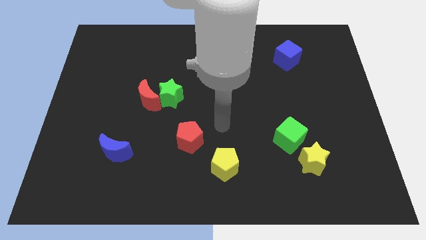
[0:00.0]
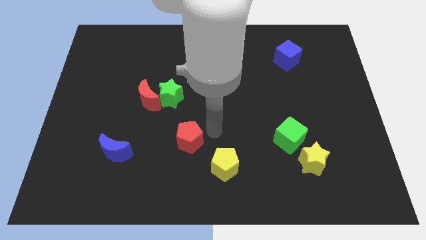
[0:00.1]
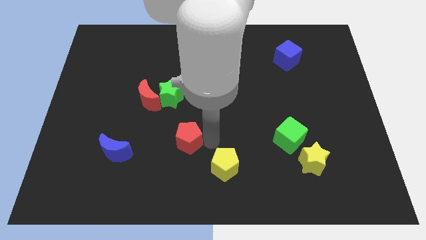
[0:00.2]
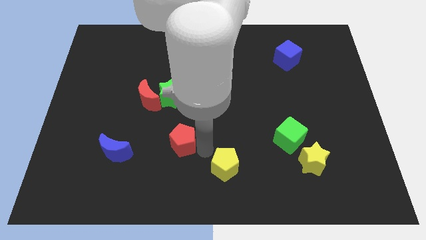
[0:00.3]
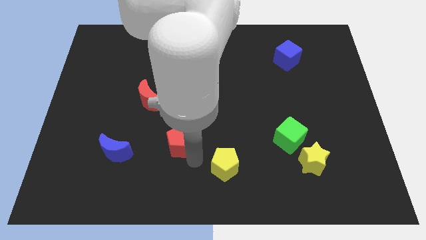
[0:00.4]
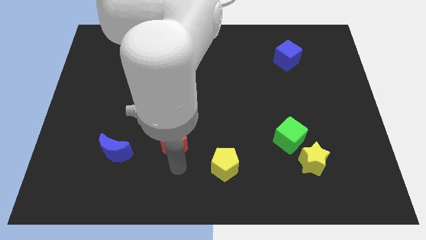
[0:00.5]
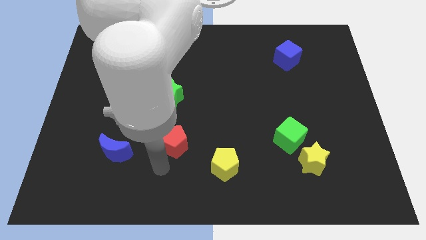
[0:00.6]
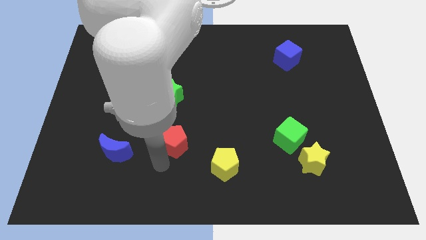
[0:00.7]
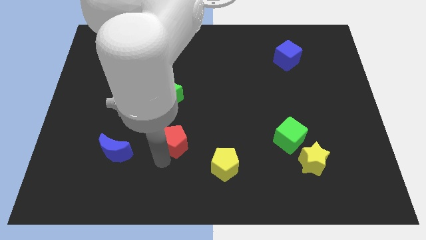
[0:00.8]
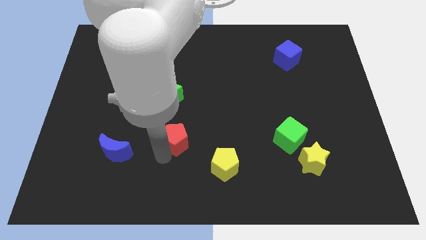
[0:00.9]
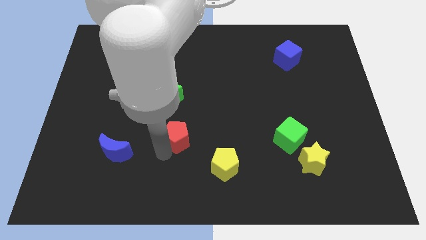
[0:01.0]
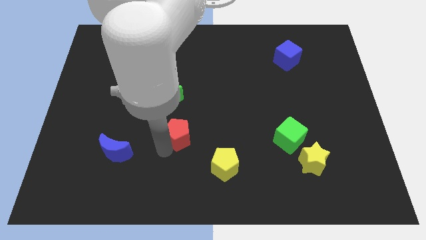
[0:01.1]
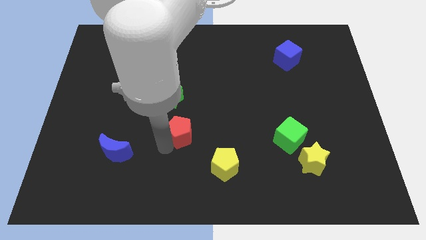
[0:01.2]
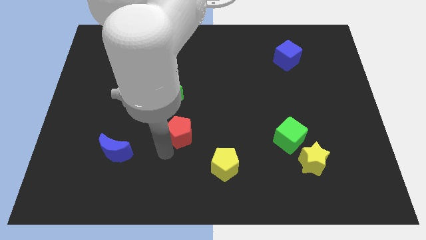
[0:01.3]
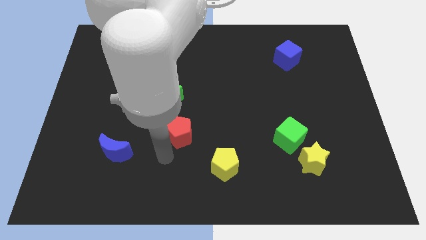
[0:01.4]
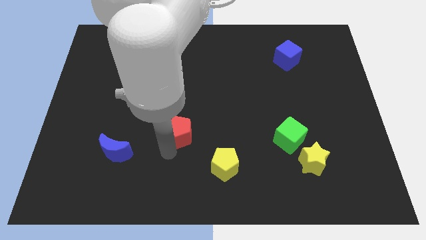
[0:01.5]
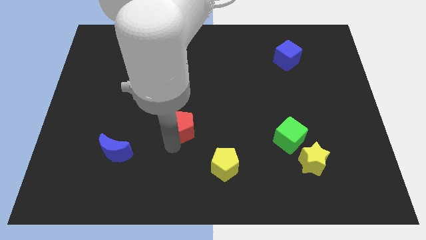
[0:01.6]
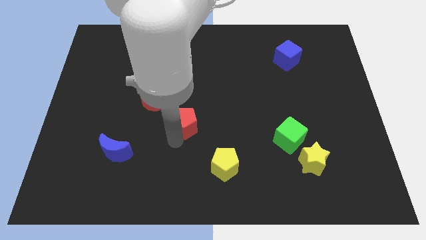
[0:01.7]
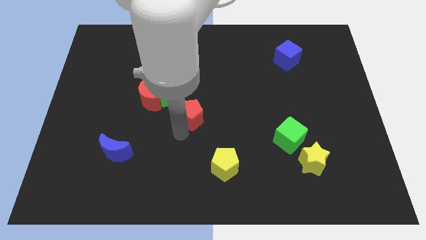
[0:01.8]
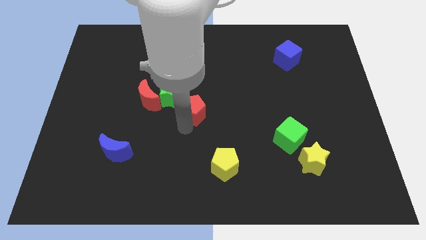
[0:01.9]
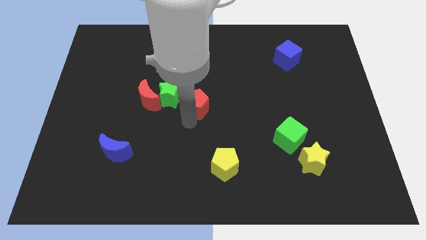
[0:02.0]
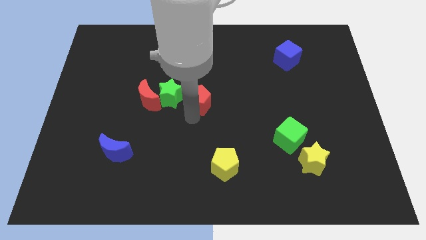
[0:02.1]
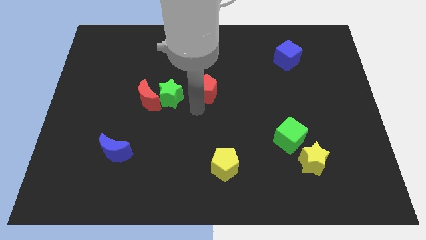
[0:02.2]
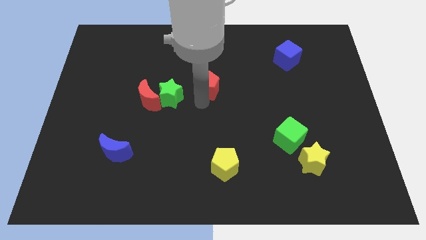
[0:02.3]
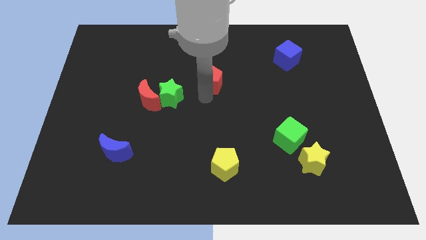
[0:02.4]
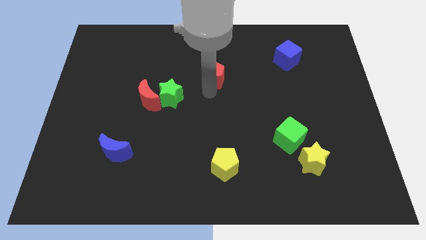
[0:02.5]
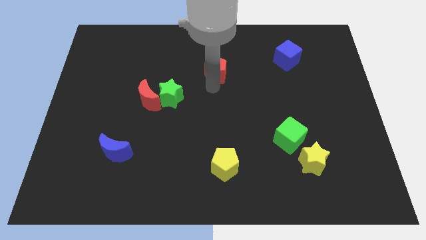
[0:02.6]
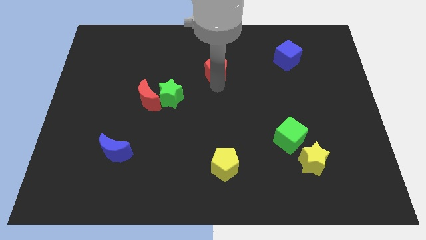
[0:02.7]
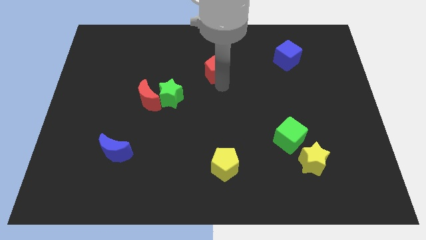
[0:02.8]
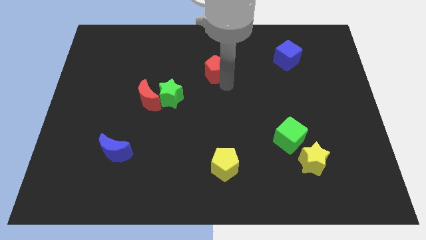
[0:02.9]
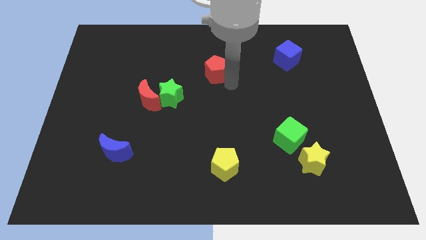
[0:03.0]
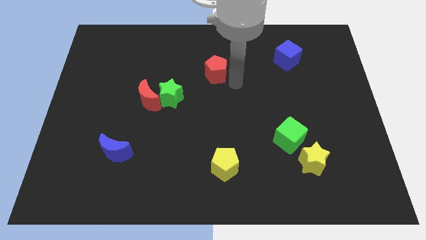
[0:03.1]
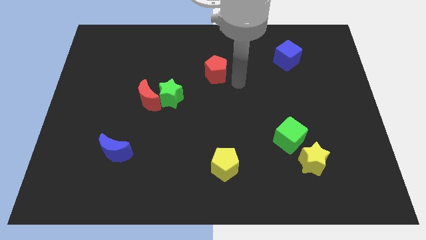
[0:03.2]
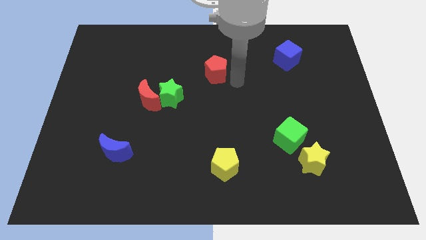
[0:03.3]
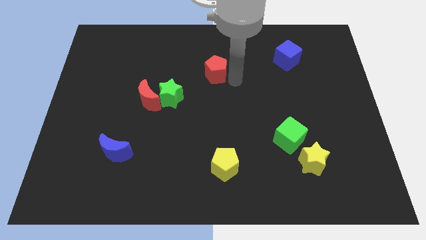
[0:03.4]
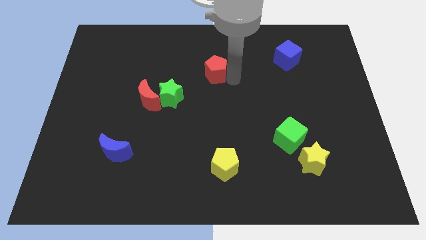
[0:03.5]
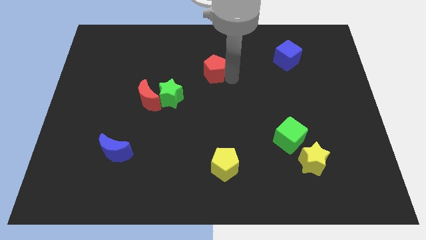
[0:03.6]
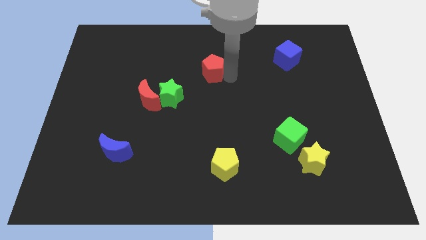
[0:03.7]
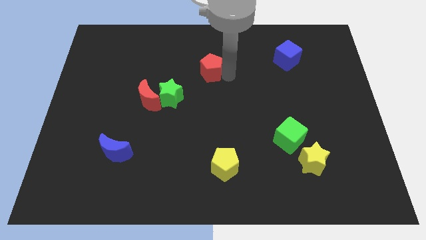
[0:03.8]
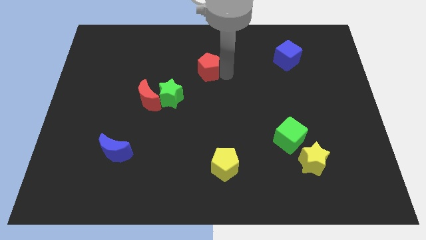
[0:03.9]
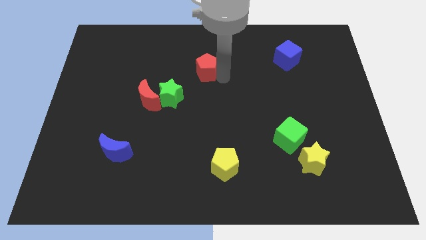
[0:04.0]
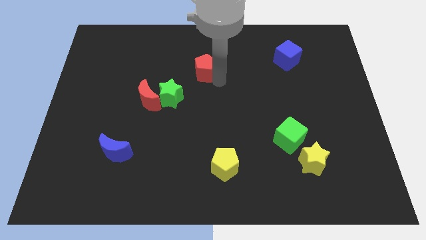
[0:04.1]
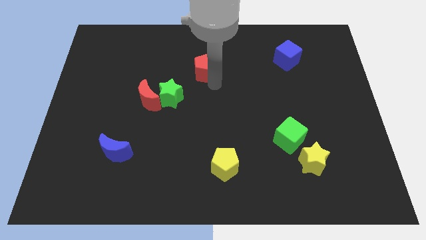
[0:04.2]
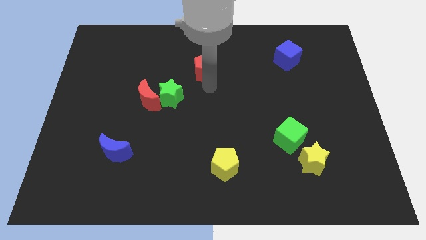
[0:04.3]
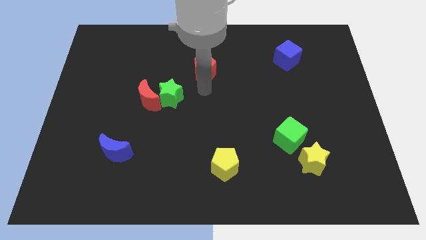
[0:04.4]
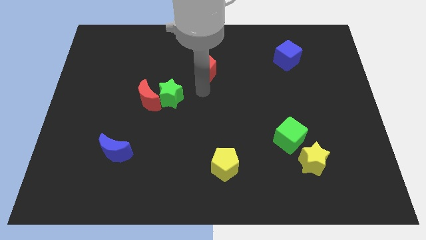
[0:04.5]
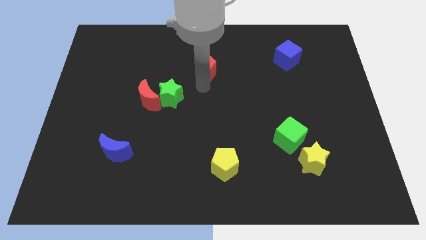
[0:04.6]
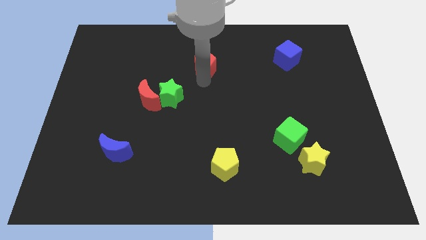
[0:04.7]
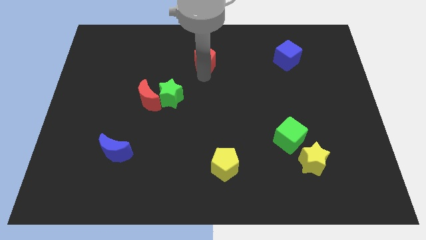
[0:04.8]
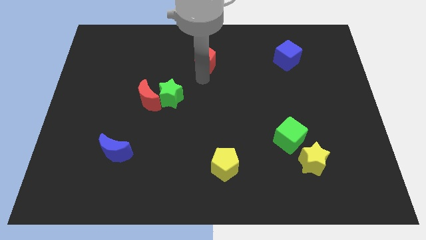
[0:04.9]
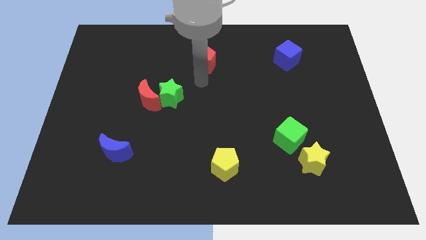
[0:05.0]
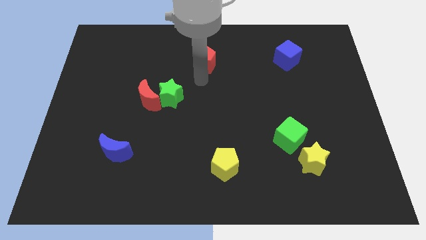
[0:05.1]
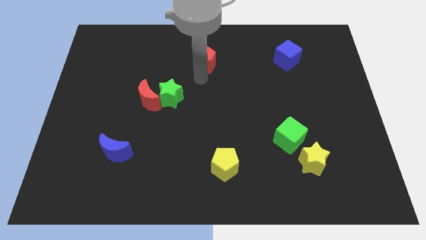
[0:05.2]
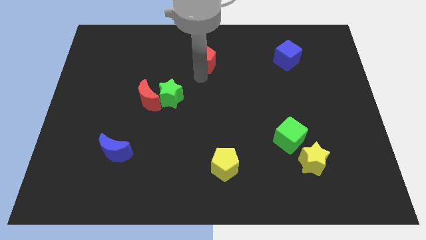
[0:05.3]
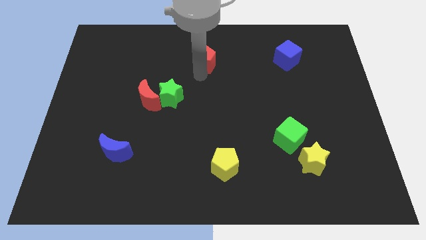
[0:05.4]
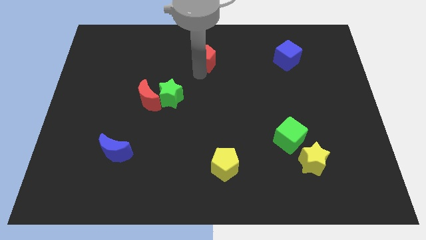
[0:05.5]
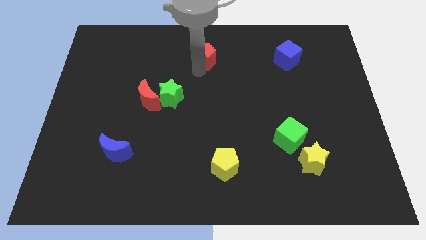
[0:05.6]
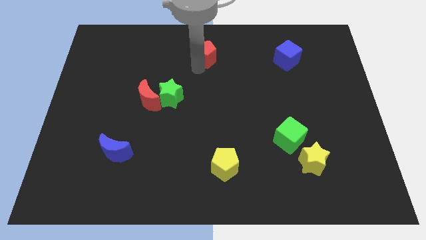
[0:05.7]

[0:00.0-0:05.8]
push the red pentagon to the top

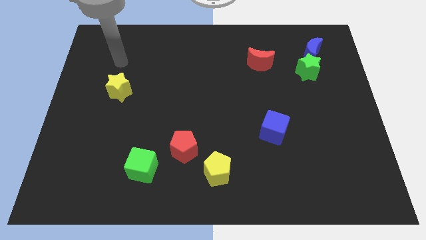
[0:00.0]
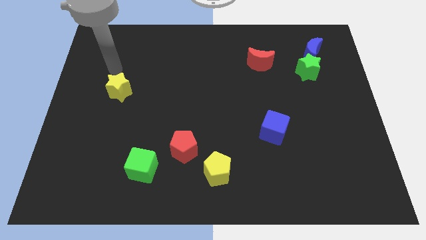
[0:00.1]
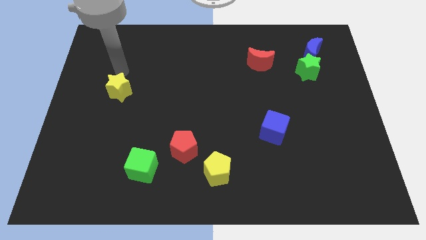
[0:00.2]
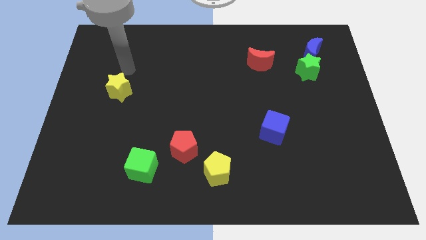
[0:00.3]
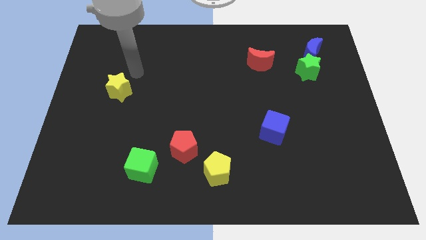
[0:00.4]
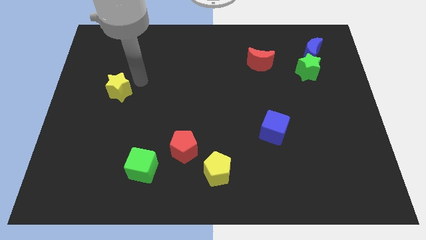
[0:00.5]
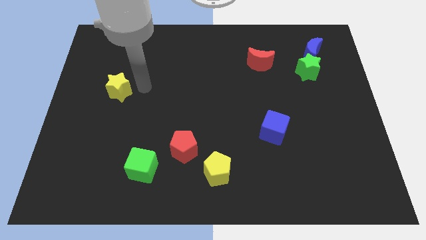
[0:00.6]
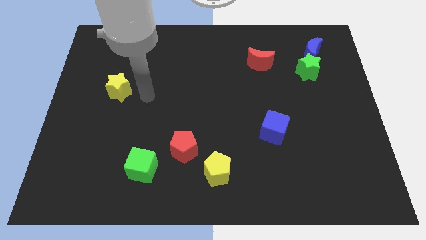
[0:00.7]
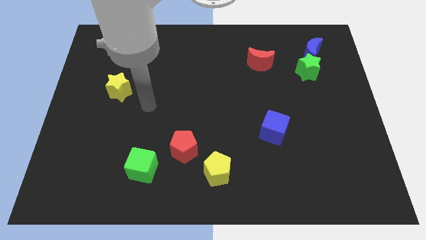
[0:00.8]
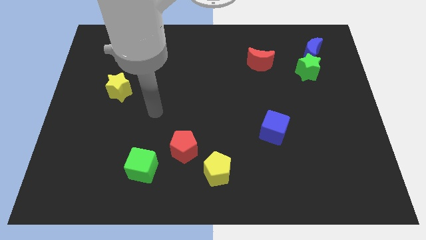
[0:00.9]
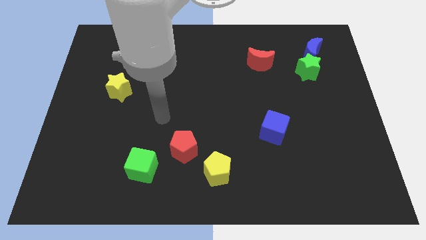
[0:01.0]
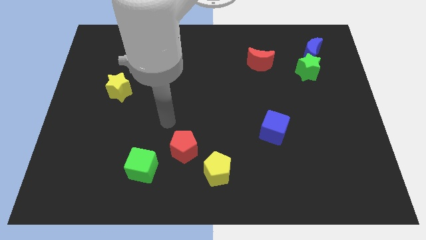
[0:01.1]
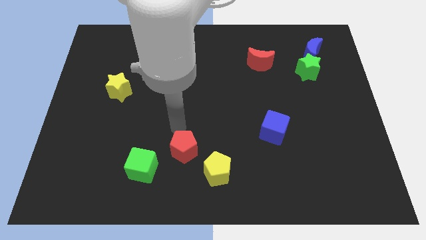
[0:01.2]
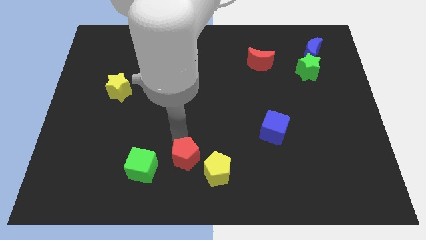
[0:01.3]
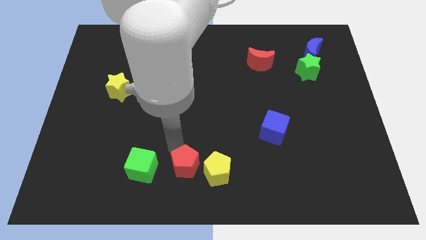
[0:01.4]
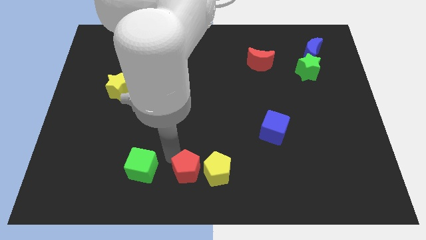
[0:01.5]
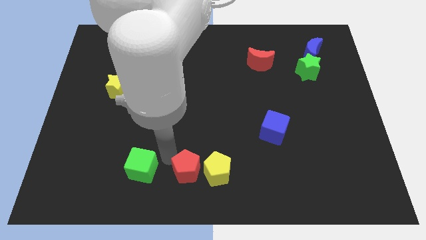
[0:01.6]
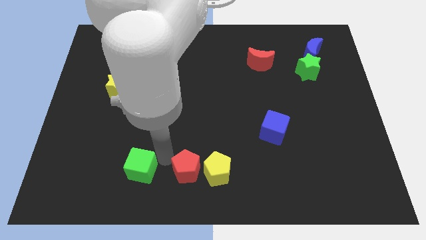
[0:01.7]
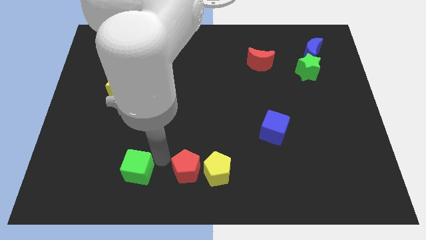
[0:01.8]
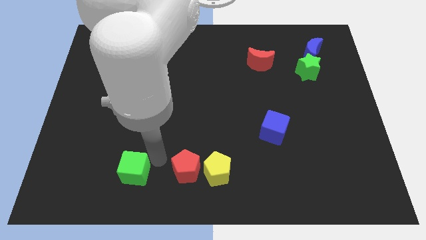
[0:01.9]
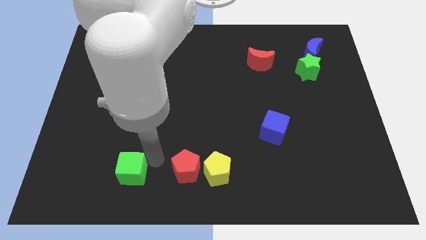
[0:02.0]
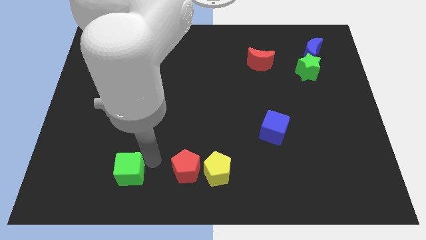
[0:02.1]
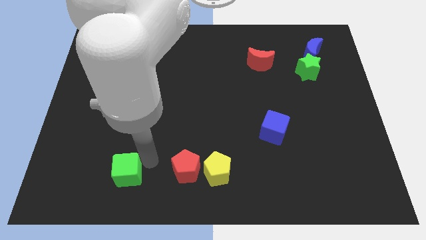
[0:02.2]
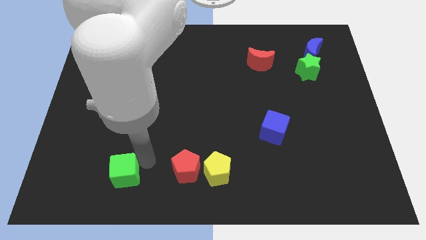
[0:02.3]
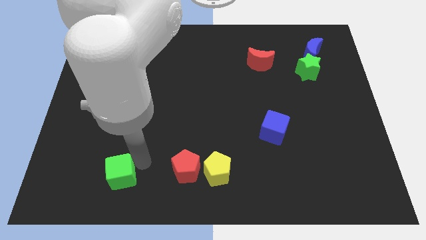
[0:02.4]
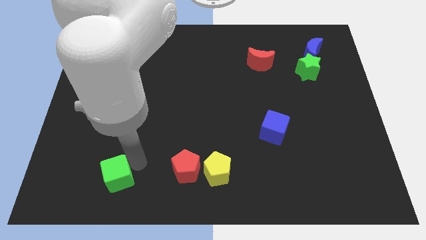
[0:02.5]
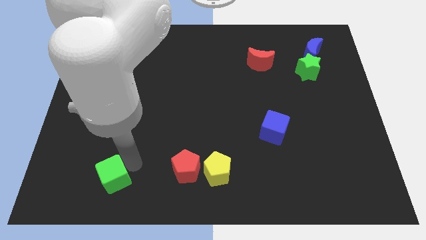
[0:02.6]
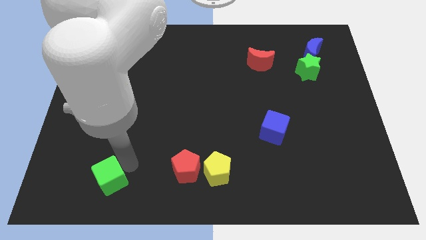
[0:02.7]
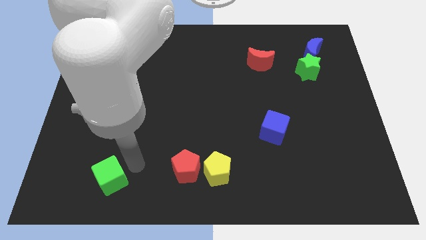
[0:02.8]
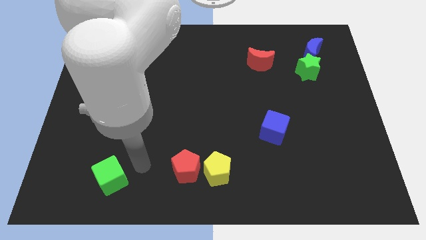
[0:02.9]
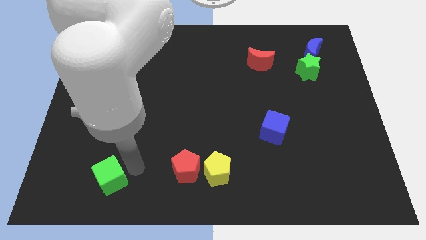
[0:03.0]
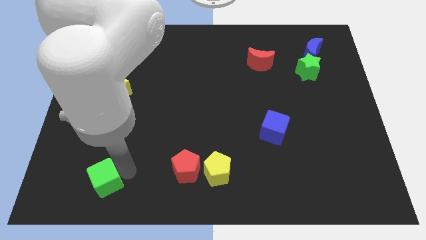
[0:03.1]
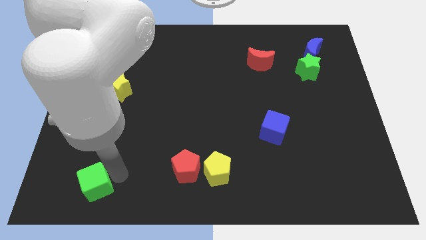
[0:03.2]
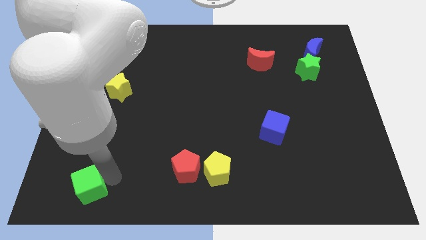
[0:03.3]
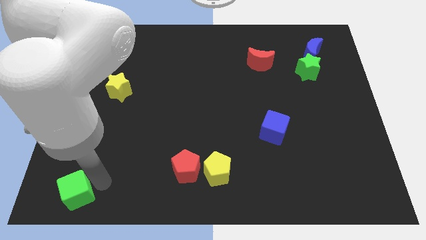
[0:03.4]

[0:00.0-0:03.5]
put the green cube to the bottom left
